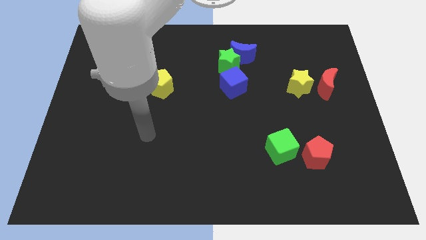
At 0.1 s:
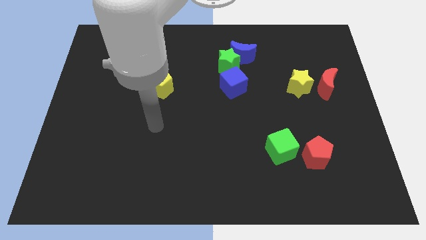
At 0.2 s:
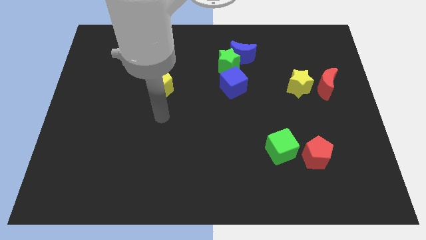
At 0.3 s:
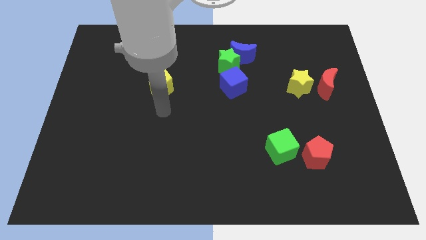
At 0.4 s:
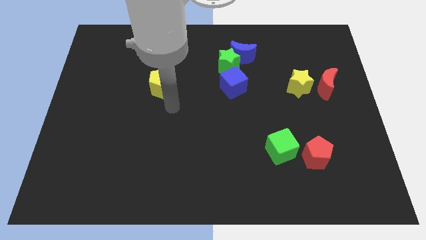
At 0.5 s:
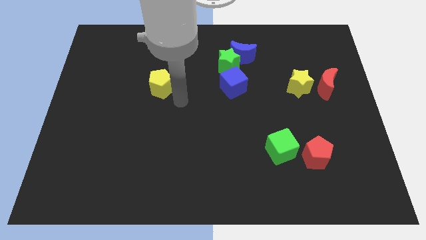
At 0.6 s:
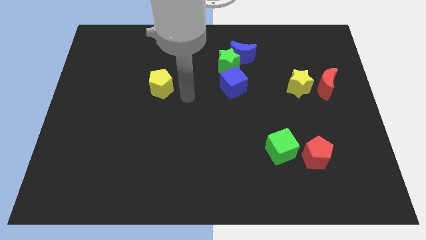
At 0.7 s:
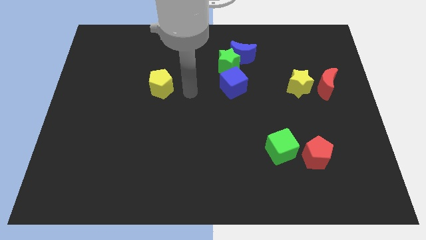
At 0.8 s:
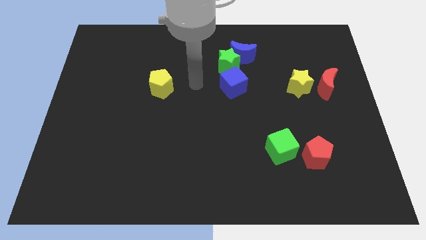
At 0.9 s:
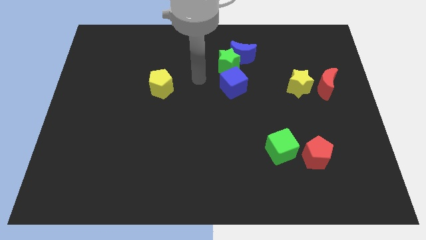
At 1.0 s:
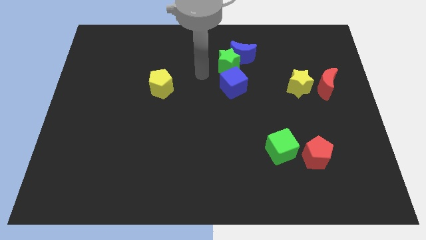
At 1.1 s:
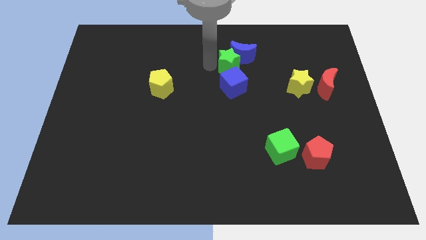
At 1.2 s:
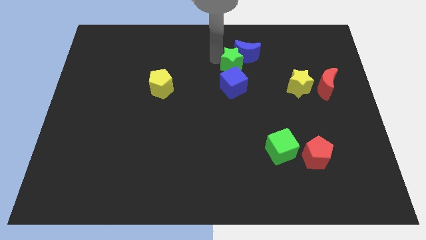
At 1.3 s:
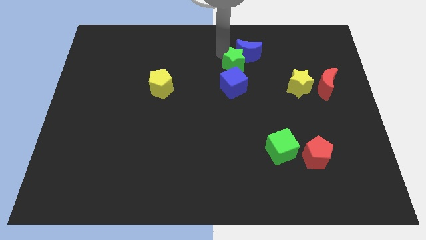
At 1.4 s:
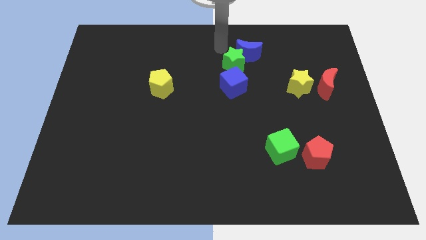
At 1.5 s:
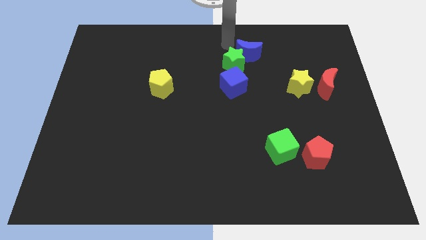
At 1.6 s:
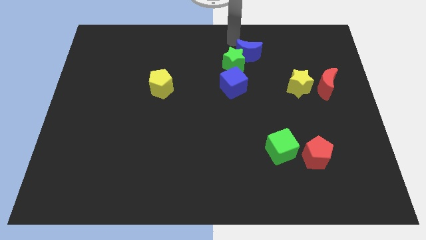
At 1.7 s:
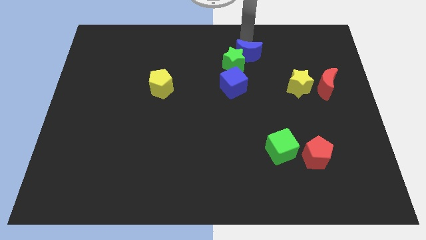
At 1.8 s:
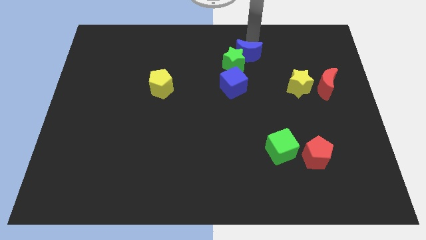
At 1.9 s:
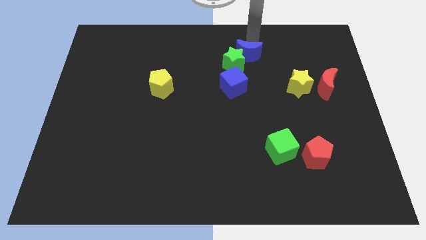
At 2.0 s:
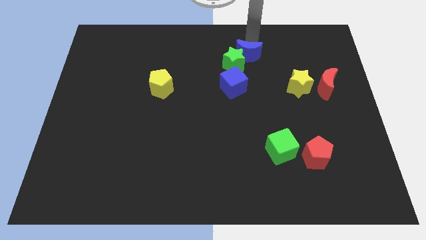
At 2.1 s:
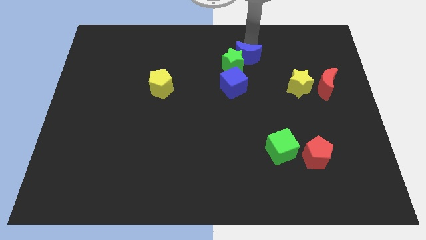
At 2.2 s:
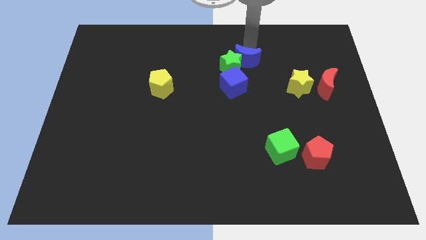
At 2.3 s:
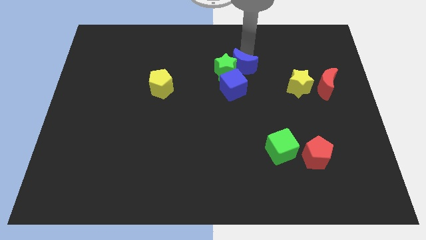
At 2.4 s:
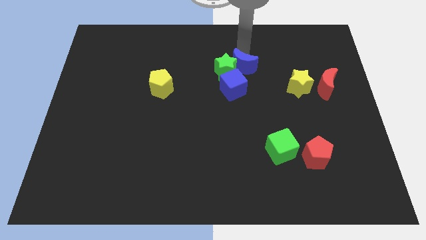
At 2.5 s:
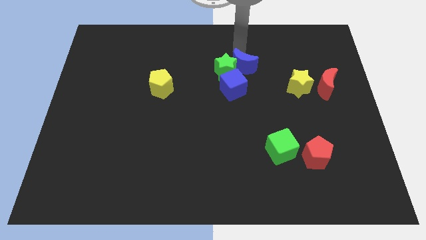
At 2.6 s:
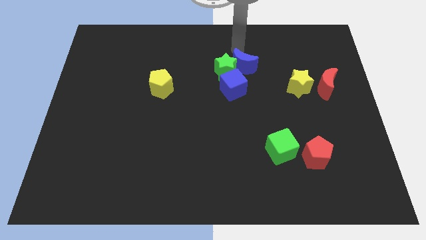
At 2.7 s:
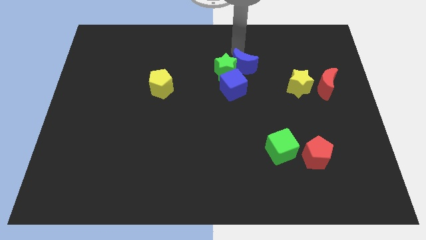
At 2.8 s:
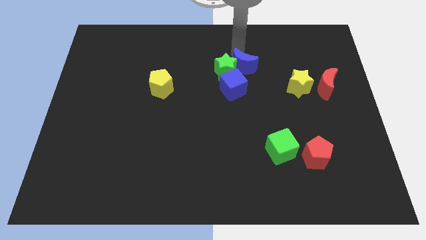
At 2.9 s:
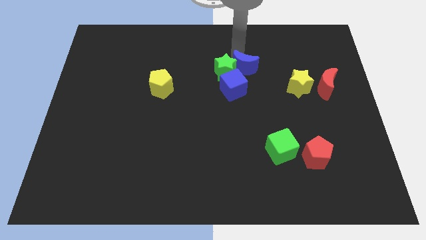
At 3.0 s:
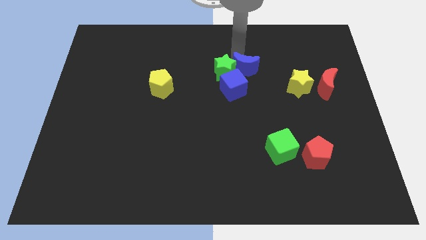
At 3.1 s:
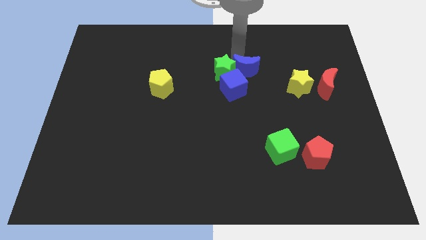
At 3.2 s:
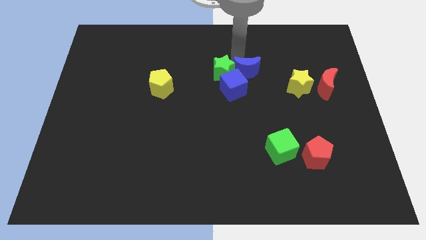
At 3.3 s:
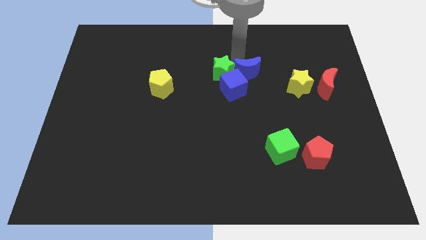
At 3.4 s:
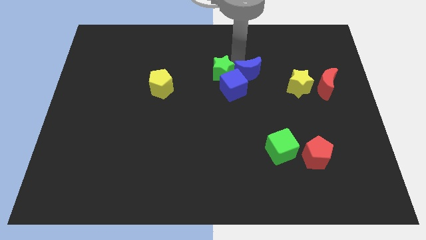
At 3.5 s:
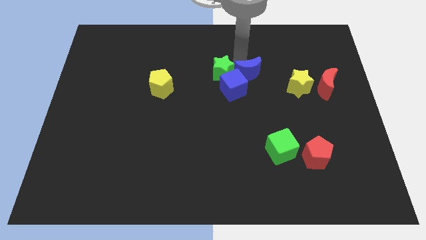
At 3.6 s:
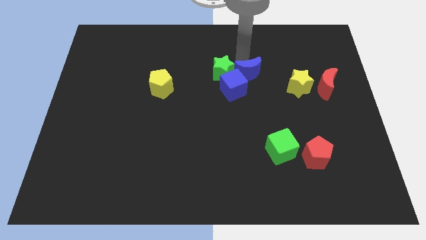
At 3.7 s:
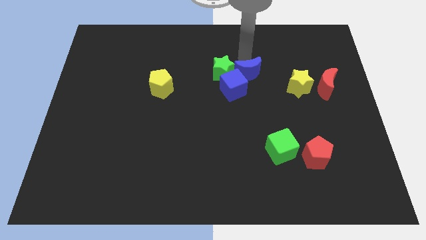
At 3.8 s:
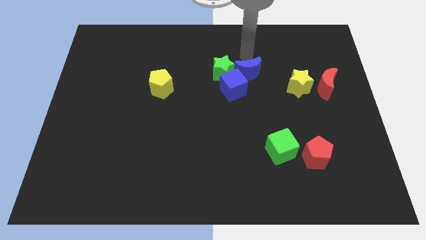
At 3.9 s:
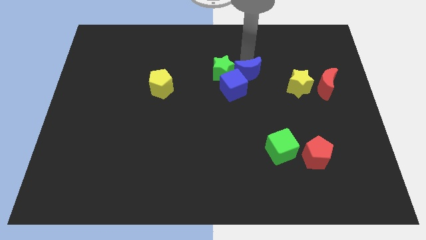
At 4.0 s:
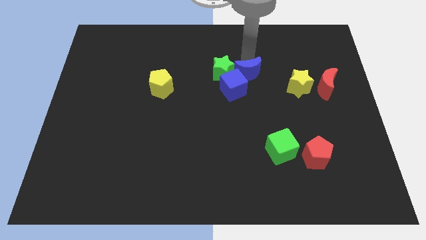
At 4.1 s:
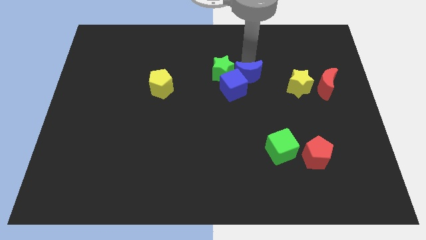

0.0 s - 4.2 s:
slide the blue moon a little downwards

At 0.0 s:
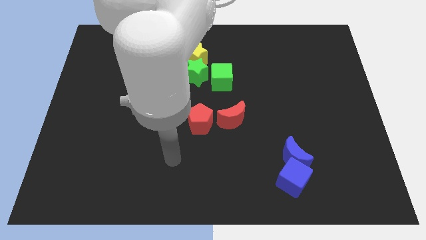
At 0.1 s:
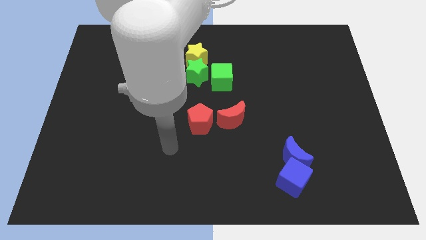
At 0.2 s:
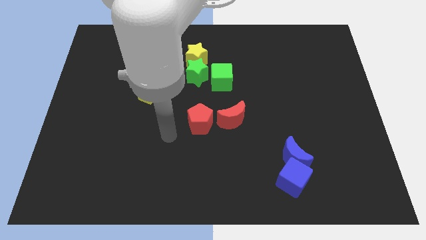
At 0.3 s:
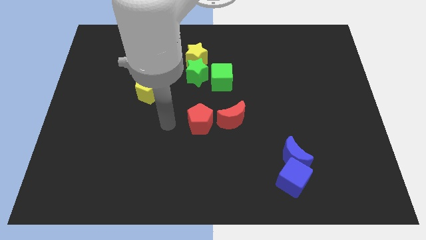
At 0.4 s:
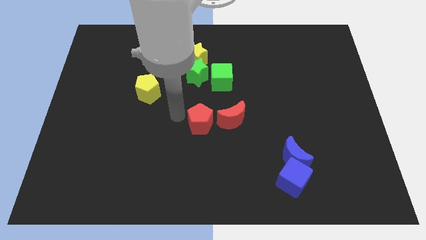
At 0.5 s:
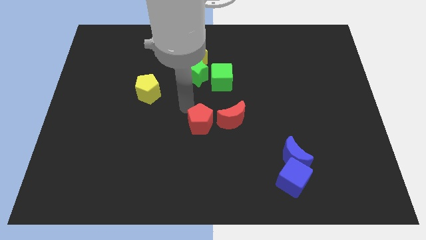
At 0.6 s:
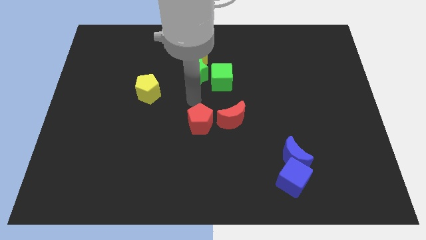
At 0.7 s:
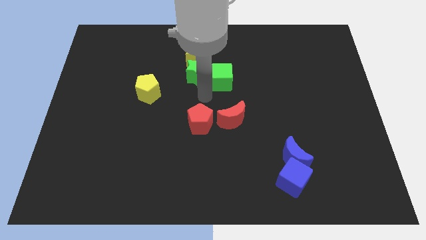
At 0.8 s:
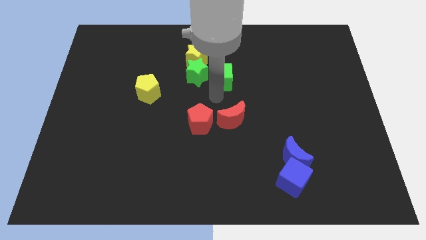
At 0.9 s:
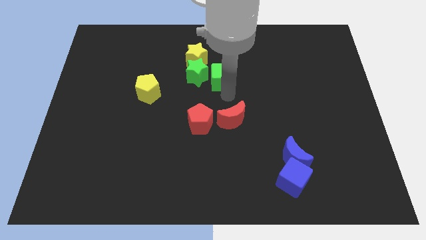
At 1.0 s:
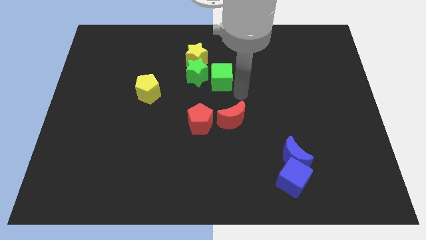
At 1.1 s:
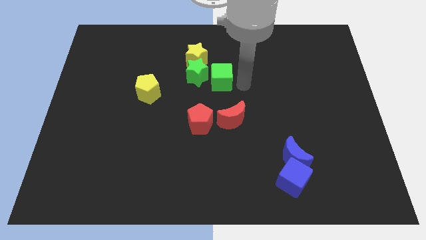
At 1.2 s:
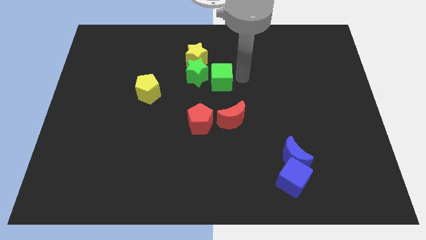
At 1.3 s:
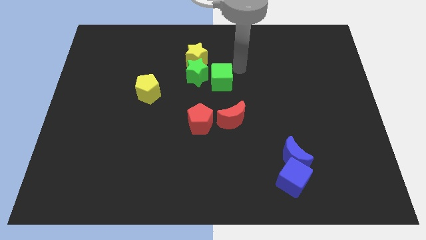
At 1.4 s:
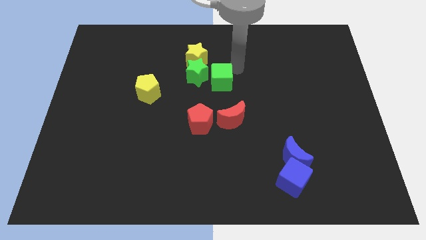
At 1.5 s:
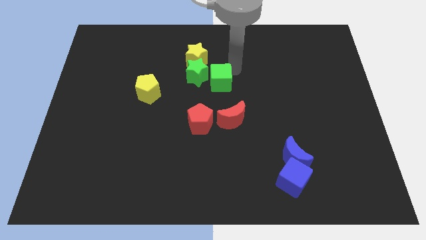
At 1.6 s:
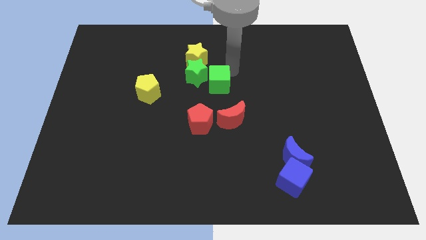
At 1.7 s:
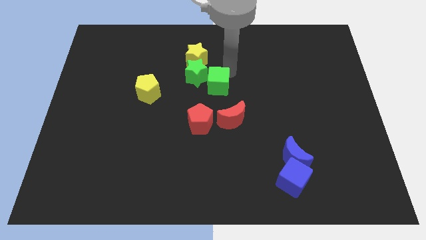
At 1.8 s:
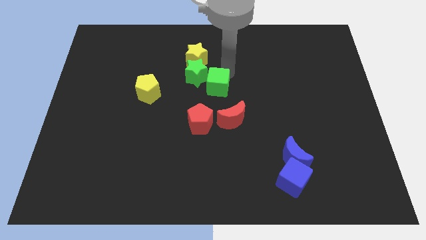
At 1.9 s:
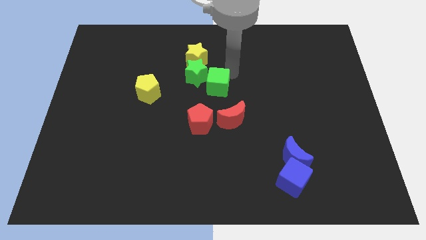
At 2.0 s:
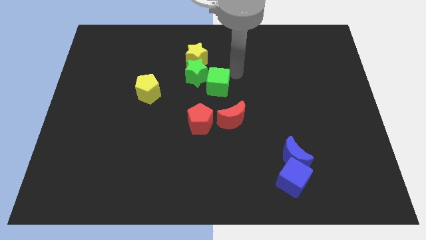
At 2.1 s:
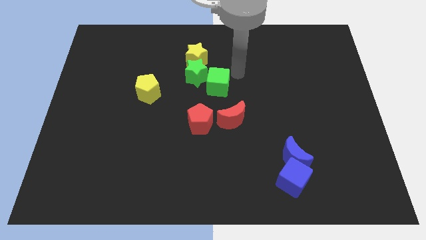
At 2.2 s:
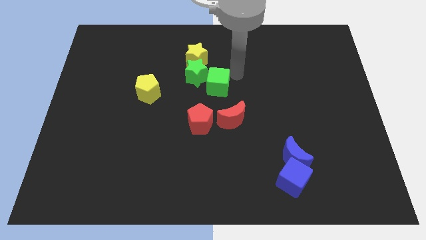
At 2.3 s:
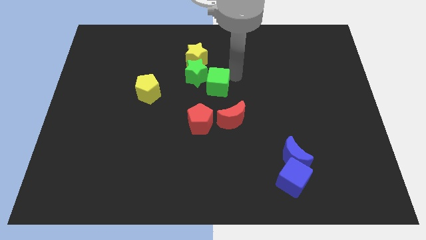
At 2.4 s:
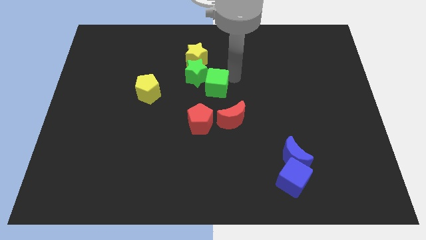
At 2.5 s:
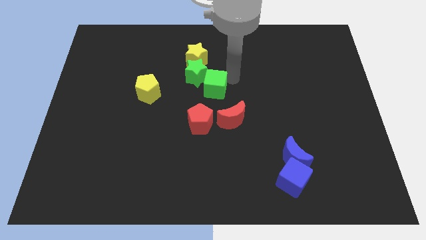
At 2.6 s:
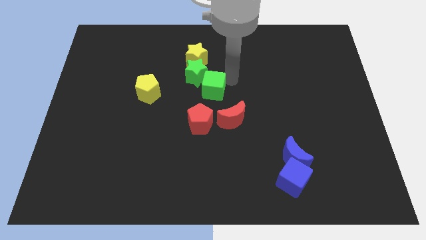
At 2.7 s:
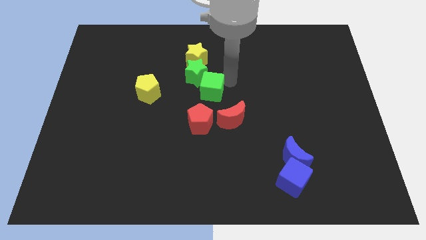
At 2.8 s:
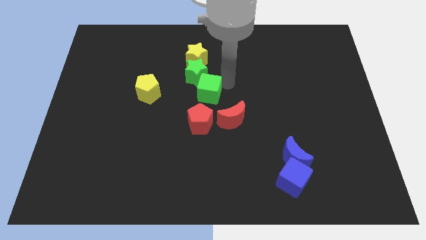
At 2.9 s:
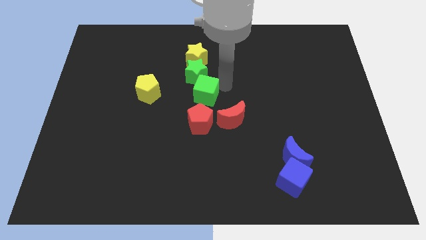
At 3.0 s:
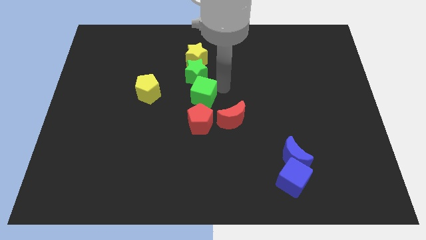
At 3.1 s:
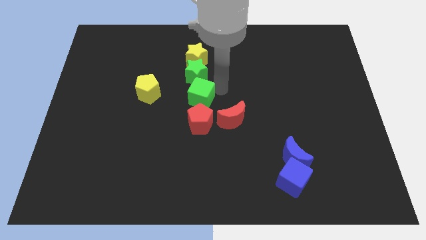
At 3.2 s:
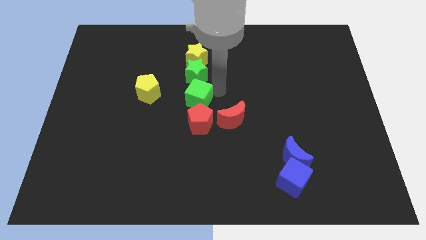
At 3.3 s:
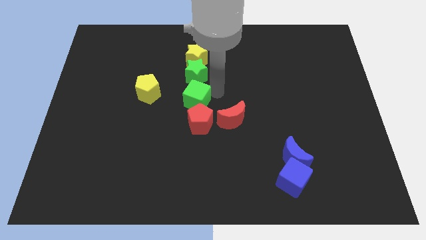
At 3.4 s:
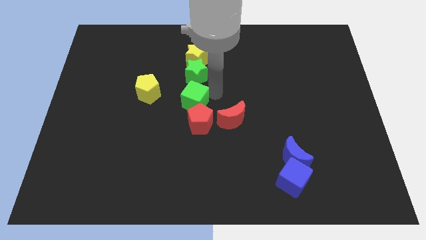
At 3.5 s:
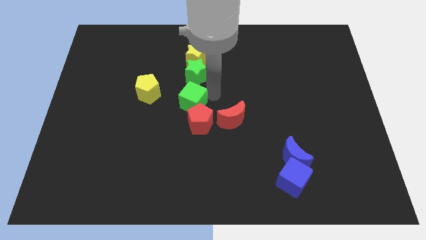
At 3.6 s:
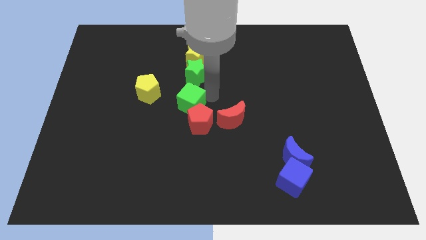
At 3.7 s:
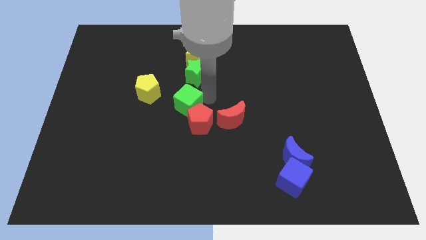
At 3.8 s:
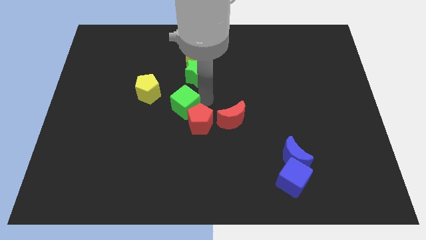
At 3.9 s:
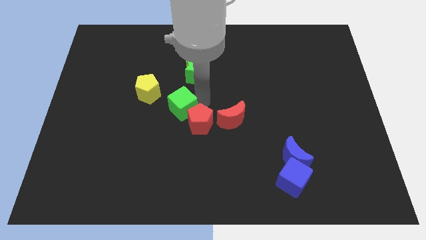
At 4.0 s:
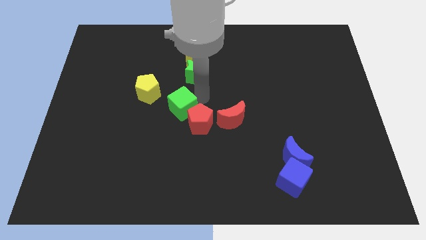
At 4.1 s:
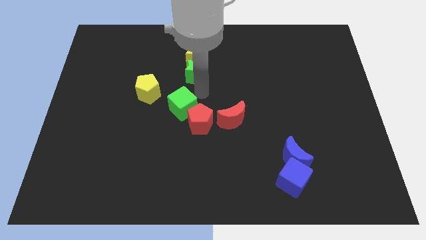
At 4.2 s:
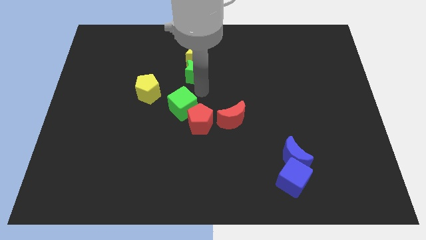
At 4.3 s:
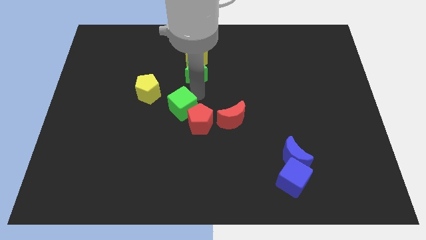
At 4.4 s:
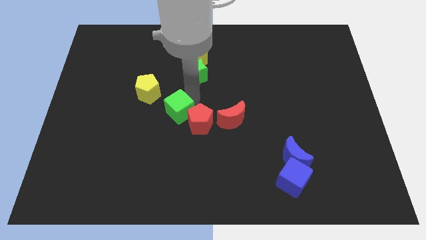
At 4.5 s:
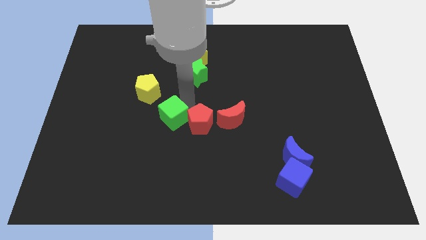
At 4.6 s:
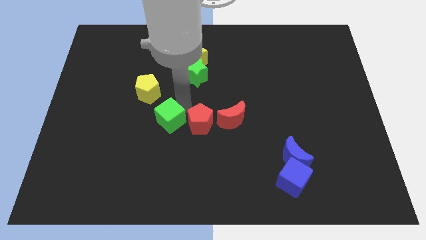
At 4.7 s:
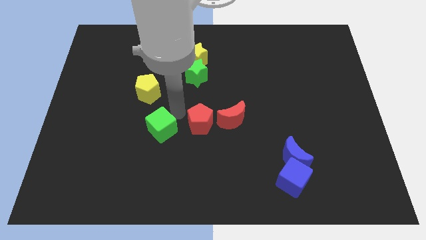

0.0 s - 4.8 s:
push the green cube downwards and then left
